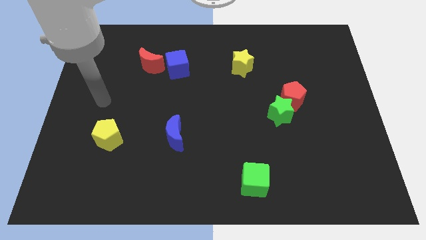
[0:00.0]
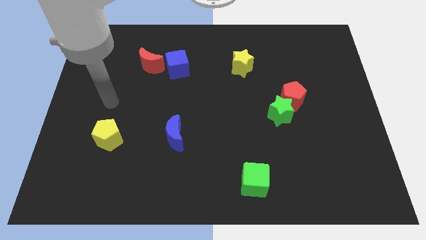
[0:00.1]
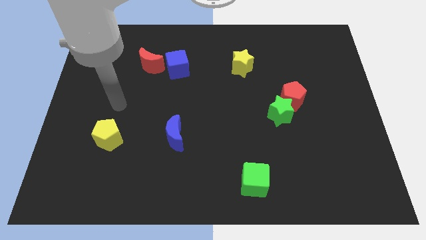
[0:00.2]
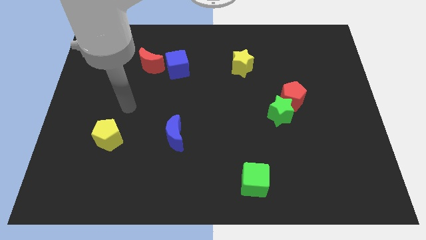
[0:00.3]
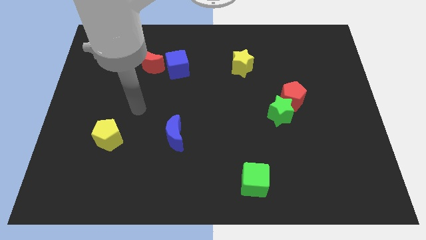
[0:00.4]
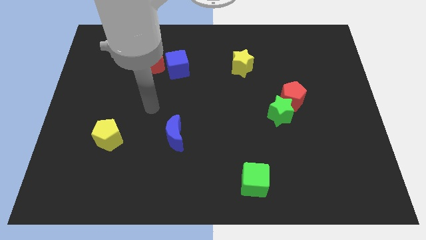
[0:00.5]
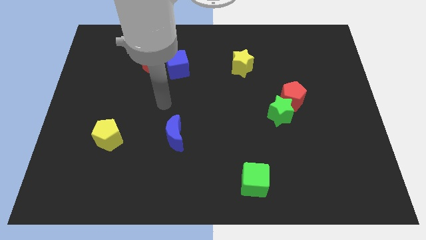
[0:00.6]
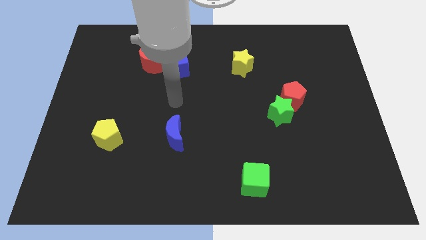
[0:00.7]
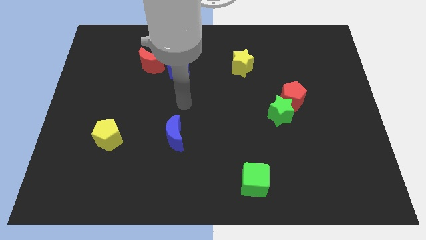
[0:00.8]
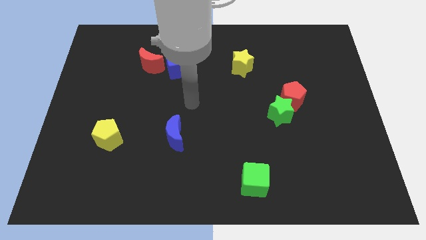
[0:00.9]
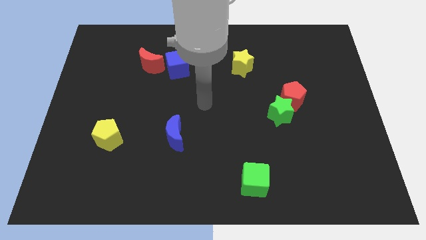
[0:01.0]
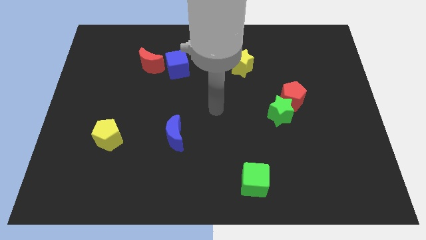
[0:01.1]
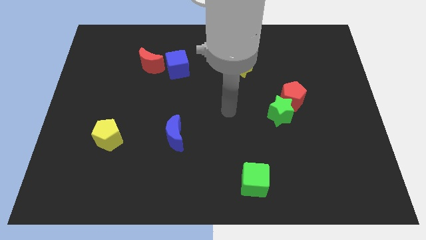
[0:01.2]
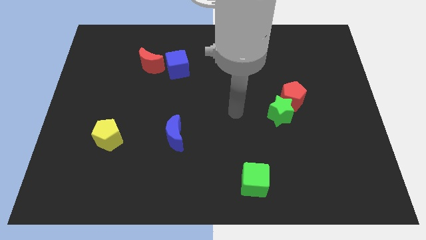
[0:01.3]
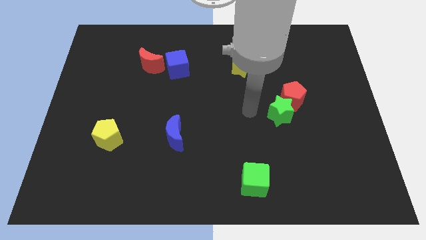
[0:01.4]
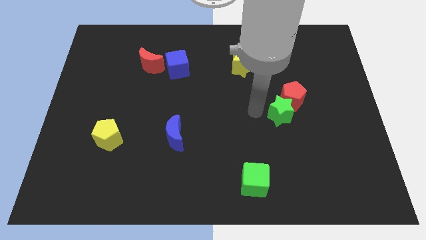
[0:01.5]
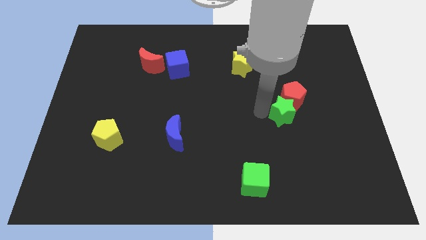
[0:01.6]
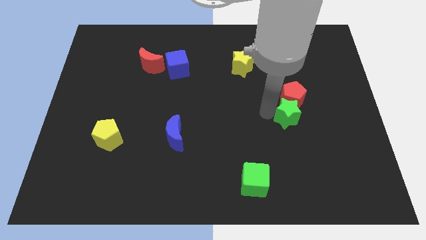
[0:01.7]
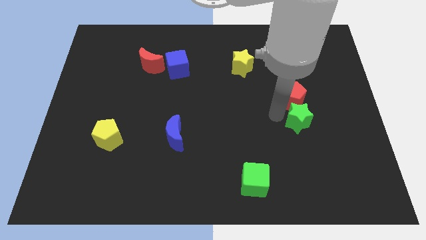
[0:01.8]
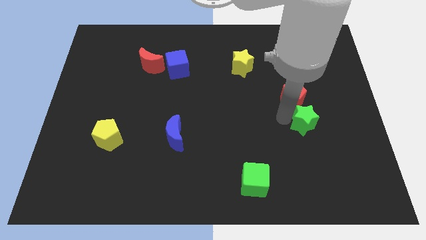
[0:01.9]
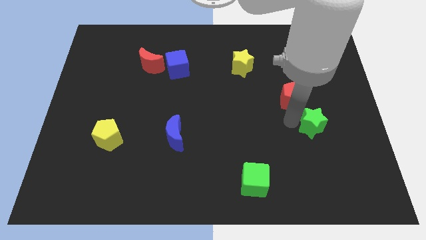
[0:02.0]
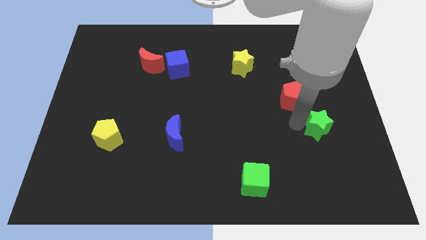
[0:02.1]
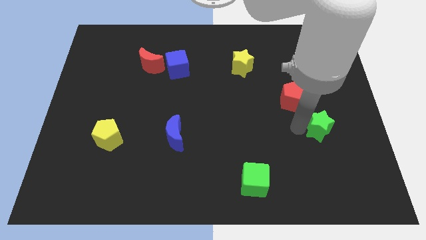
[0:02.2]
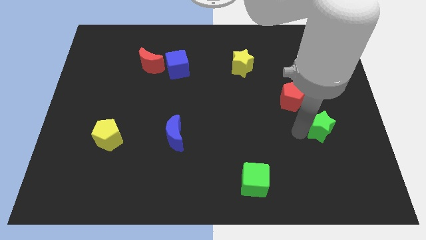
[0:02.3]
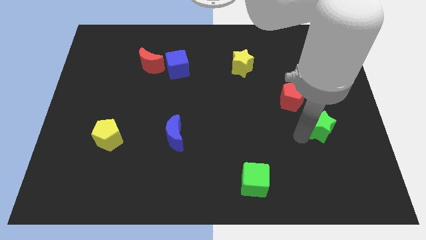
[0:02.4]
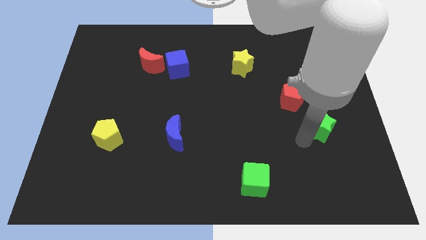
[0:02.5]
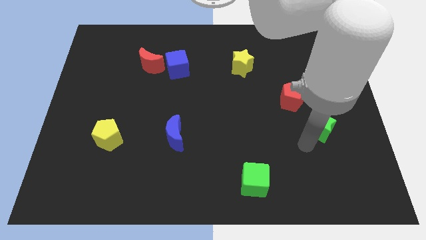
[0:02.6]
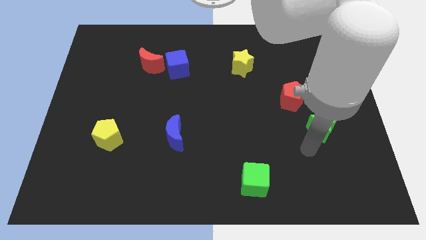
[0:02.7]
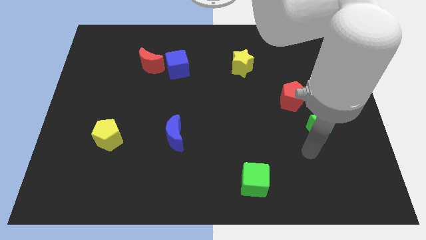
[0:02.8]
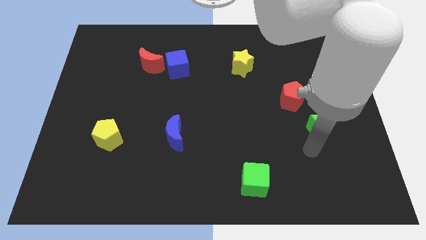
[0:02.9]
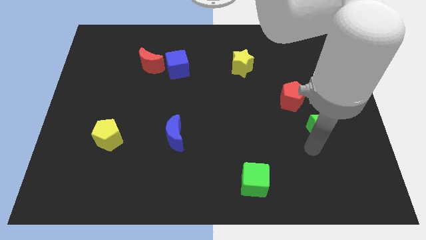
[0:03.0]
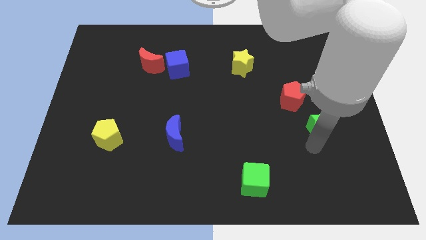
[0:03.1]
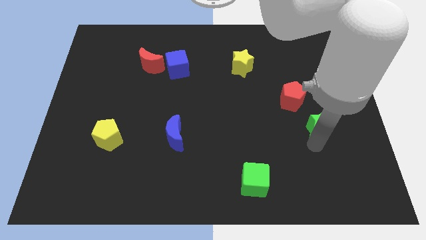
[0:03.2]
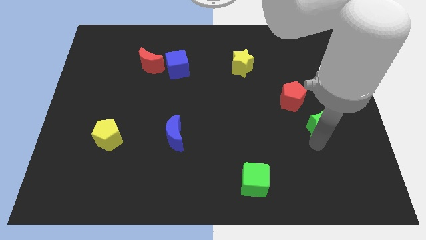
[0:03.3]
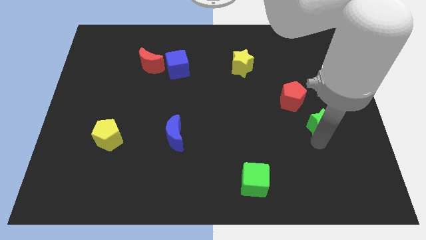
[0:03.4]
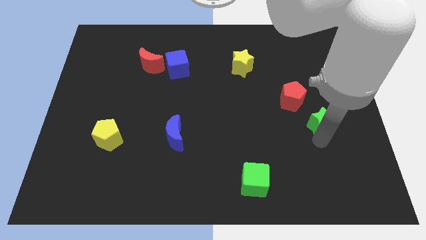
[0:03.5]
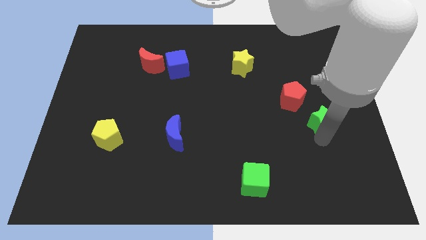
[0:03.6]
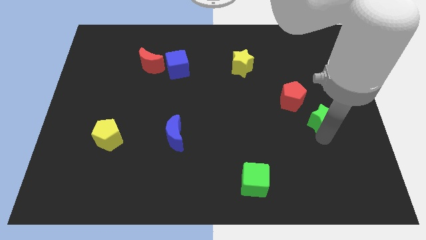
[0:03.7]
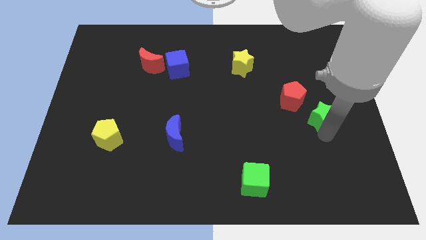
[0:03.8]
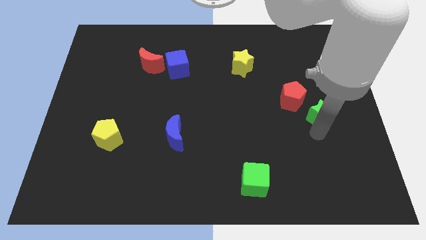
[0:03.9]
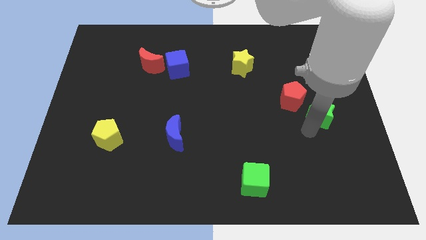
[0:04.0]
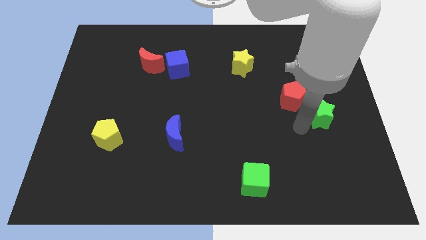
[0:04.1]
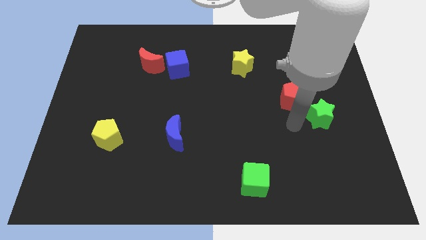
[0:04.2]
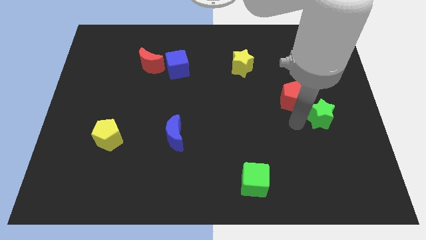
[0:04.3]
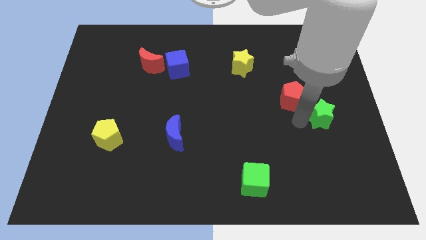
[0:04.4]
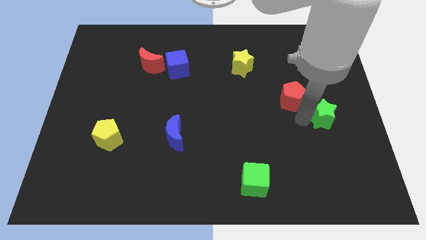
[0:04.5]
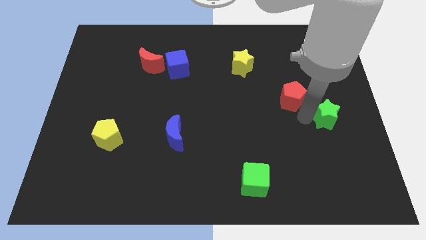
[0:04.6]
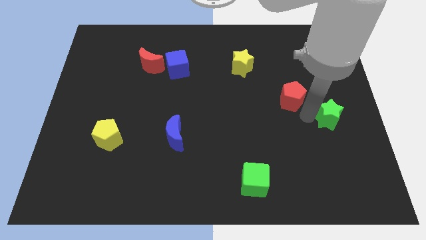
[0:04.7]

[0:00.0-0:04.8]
put the green star to the right side of the board

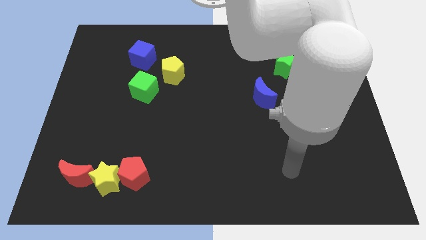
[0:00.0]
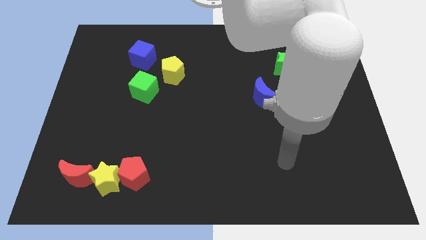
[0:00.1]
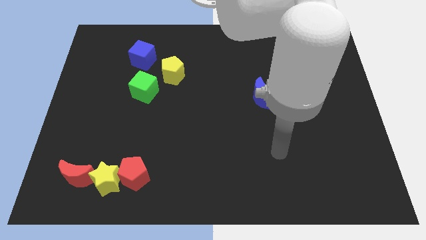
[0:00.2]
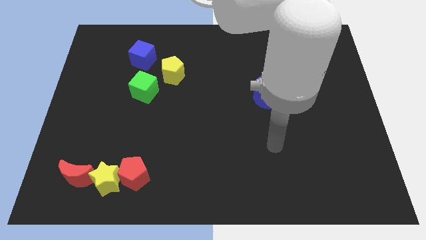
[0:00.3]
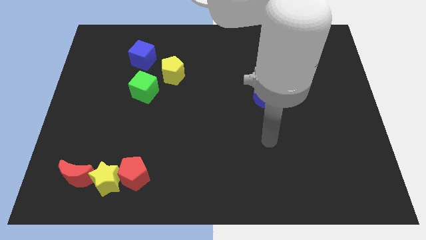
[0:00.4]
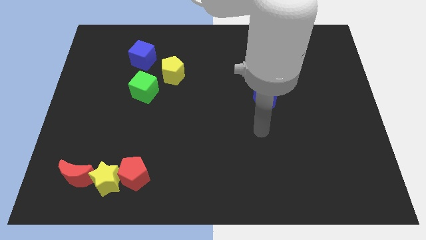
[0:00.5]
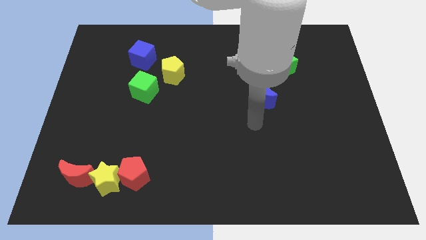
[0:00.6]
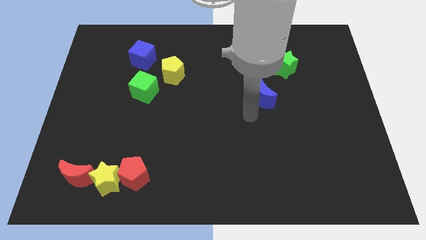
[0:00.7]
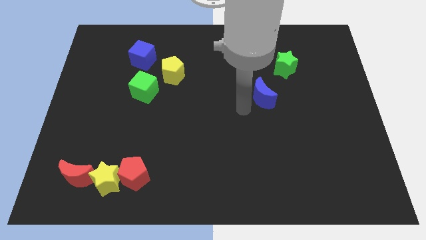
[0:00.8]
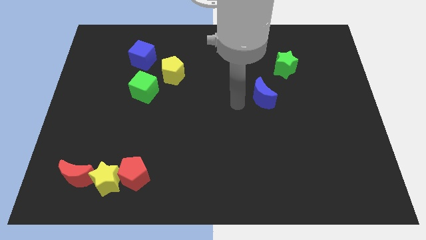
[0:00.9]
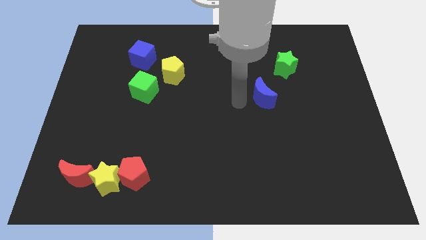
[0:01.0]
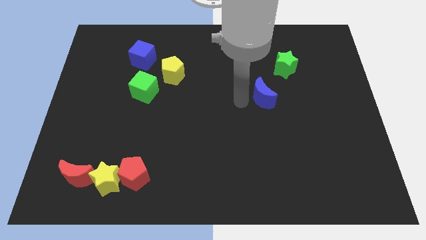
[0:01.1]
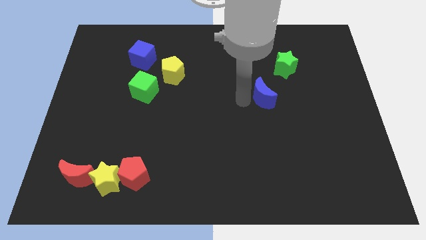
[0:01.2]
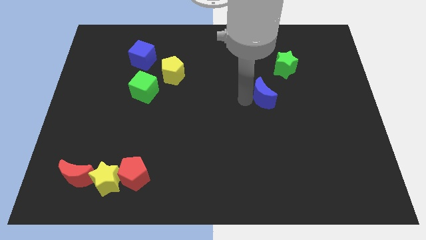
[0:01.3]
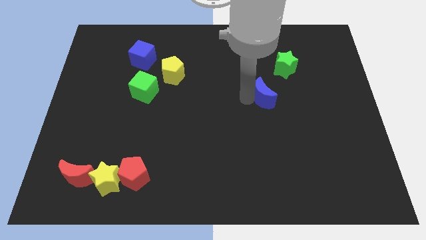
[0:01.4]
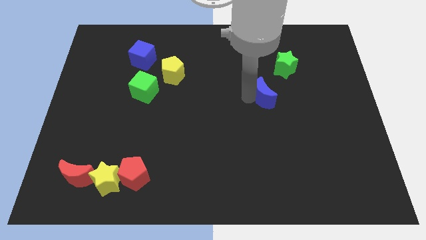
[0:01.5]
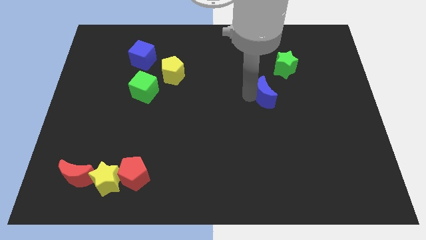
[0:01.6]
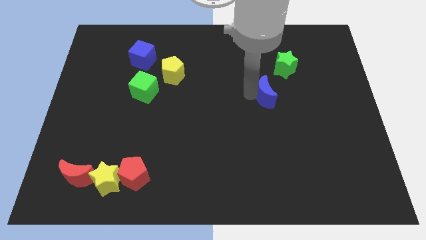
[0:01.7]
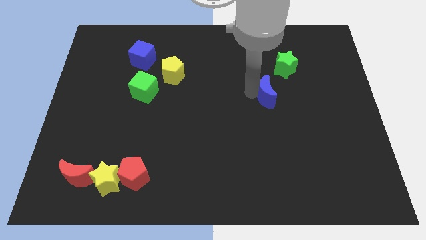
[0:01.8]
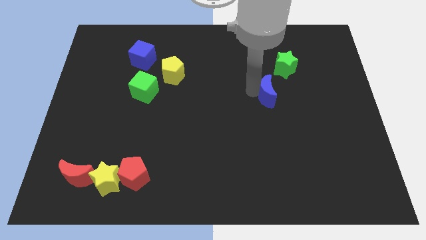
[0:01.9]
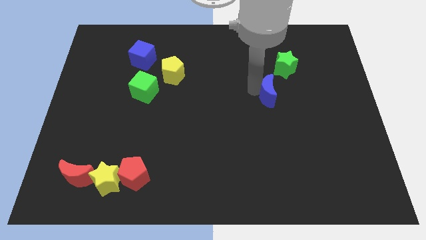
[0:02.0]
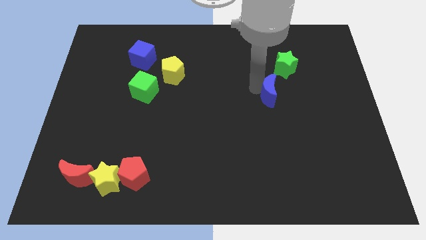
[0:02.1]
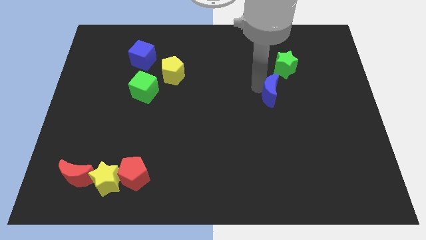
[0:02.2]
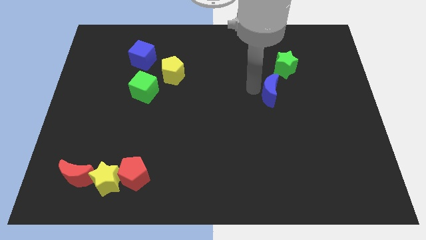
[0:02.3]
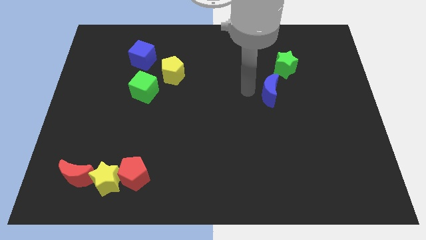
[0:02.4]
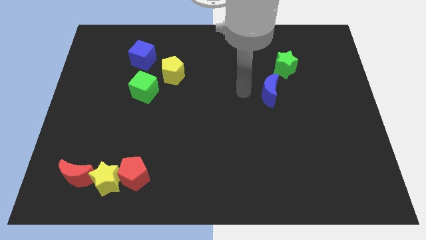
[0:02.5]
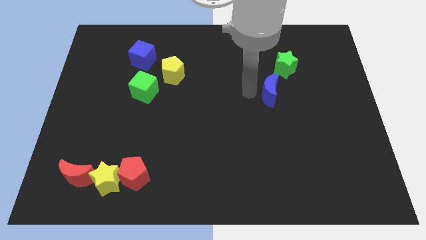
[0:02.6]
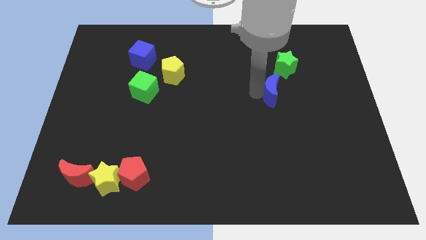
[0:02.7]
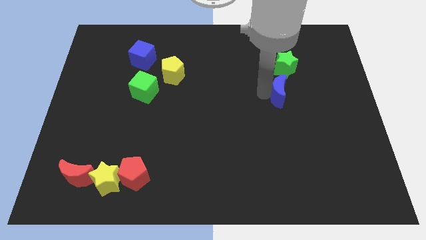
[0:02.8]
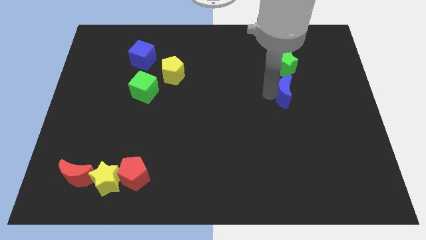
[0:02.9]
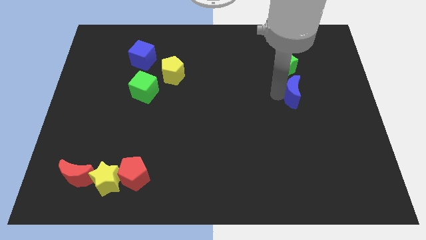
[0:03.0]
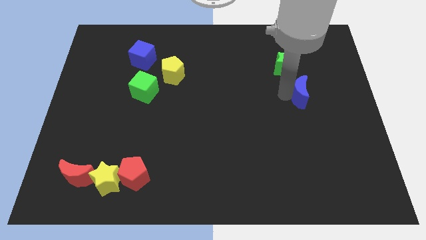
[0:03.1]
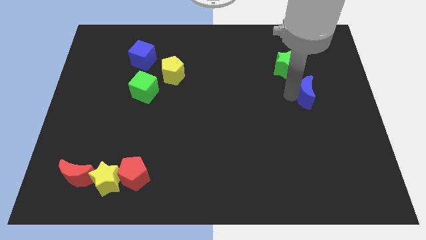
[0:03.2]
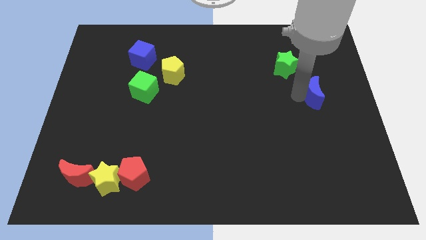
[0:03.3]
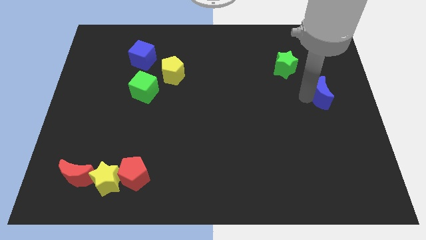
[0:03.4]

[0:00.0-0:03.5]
move the blue moon to the right side
